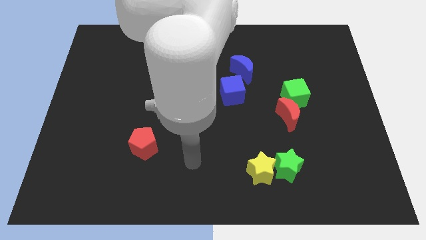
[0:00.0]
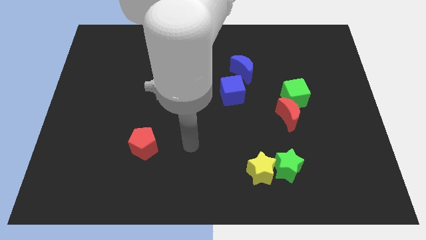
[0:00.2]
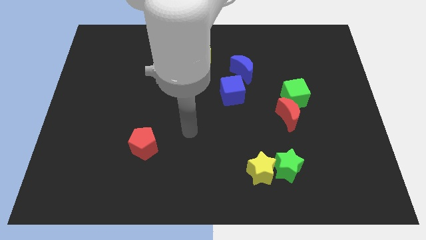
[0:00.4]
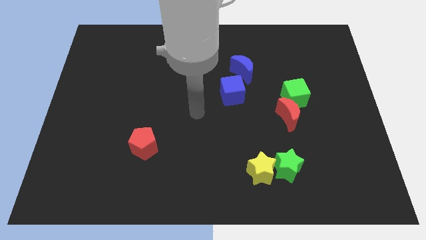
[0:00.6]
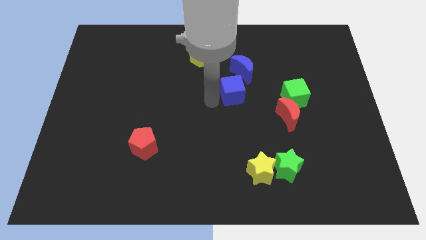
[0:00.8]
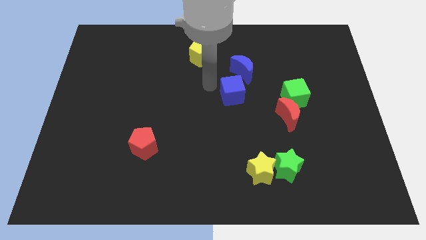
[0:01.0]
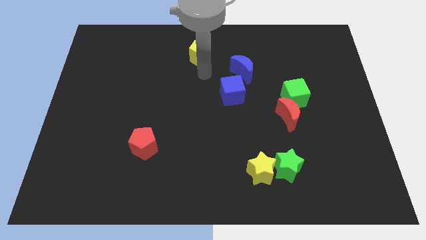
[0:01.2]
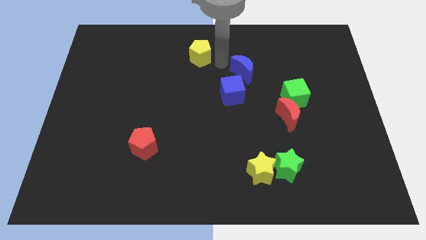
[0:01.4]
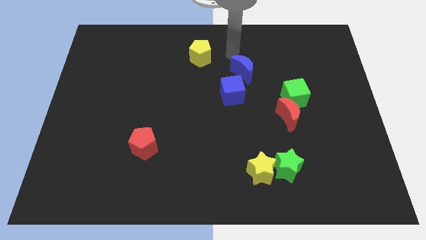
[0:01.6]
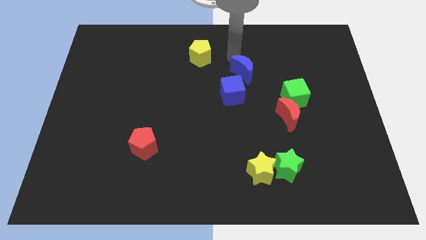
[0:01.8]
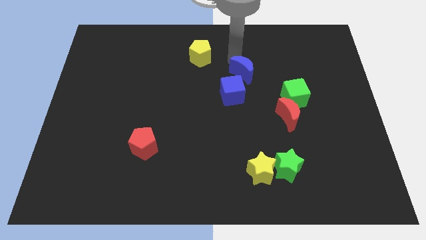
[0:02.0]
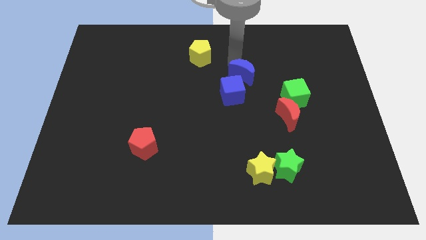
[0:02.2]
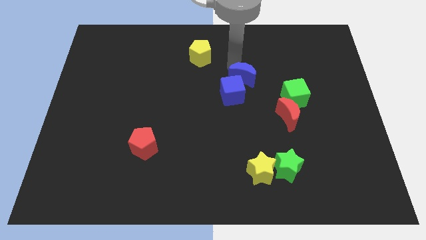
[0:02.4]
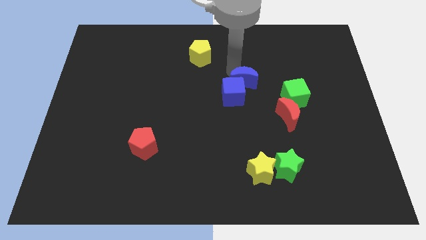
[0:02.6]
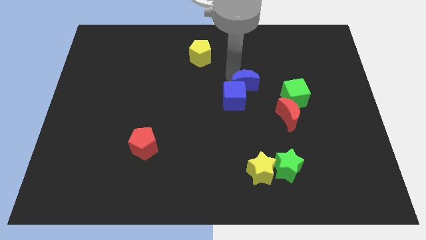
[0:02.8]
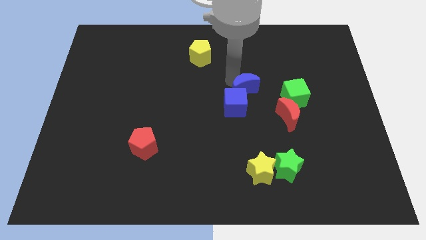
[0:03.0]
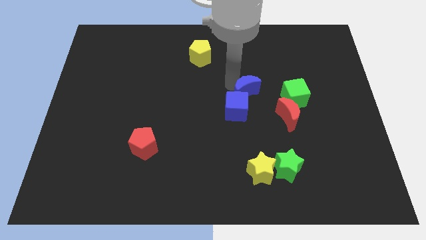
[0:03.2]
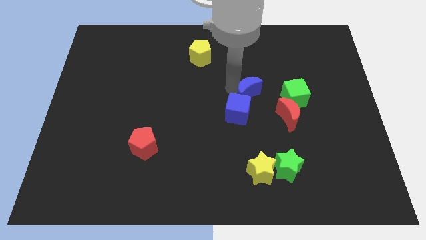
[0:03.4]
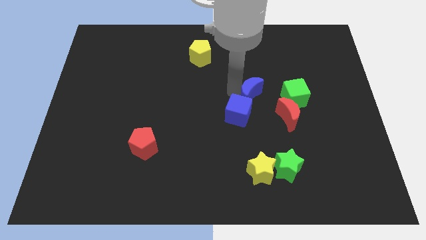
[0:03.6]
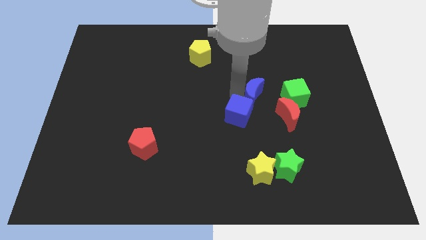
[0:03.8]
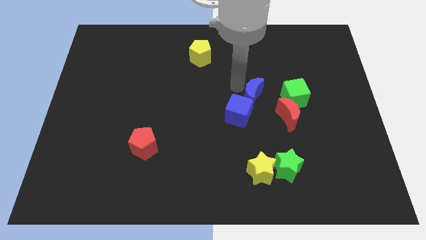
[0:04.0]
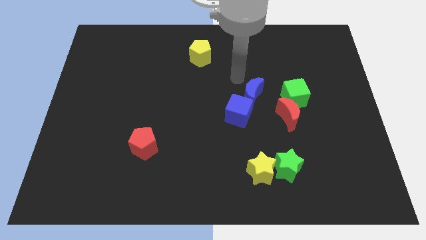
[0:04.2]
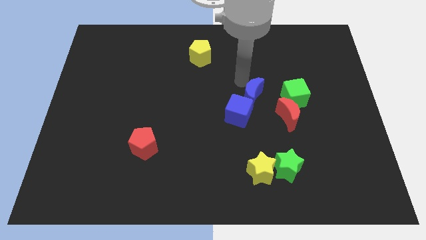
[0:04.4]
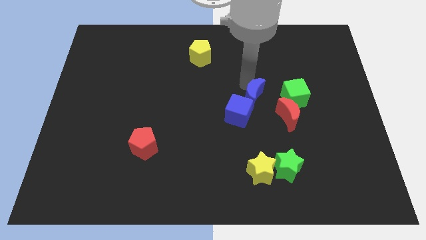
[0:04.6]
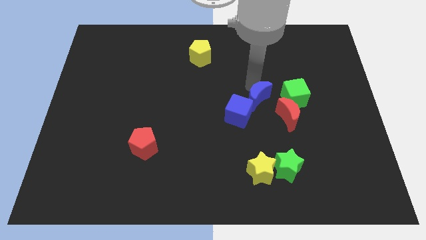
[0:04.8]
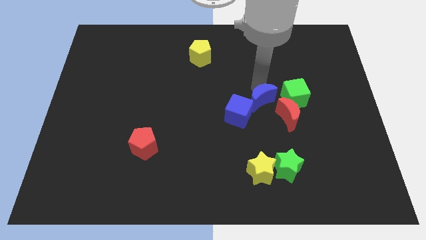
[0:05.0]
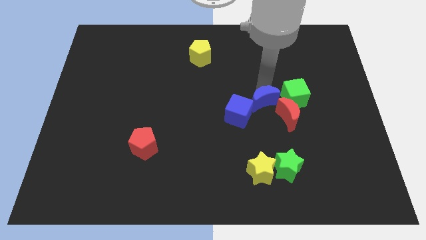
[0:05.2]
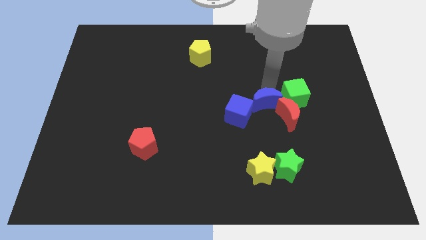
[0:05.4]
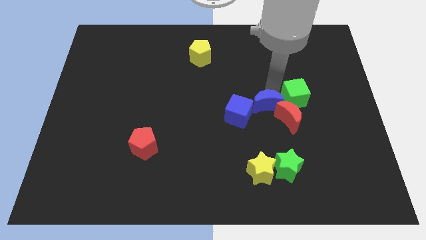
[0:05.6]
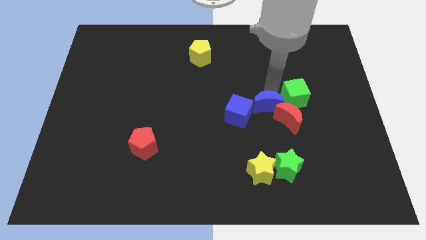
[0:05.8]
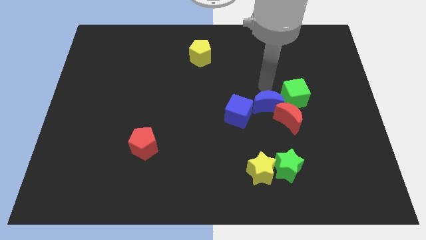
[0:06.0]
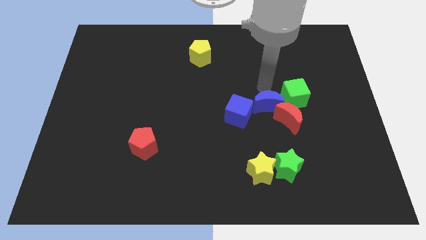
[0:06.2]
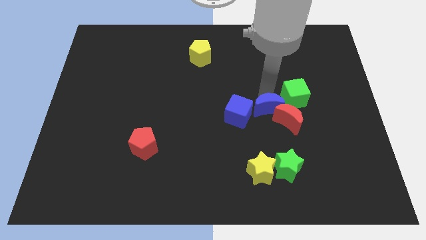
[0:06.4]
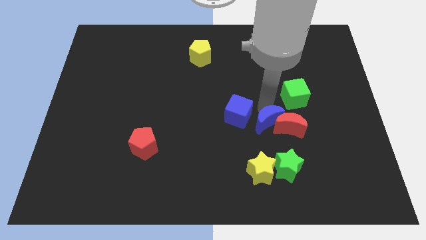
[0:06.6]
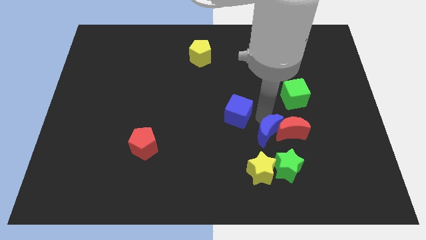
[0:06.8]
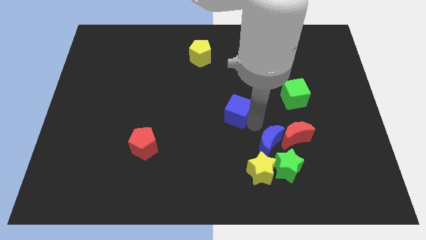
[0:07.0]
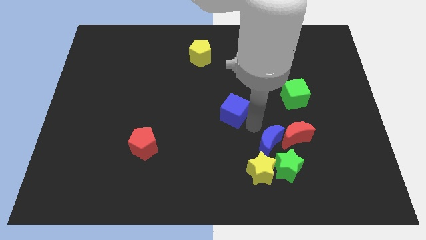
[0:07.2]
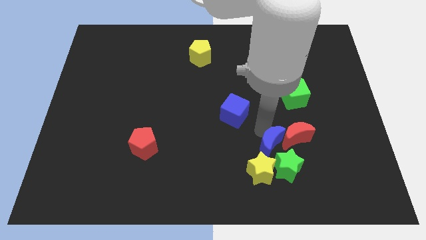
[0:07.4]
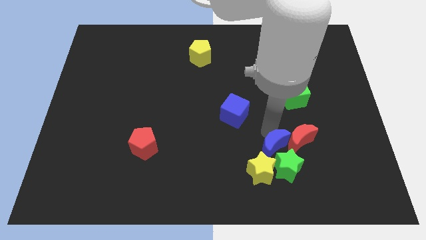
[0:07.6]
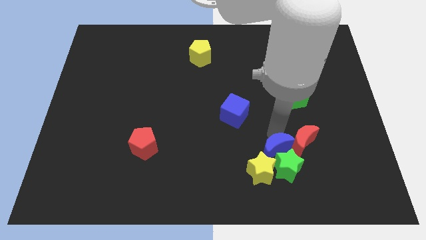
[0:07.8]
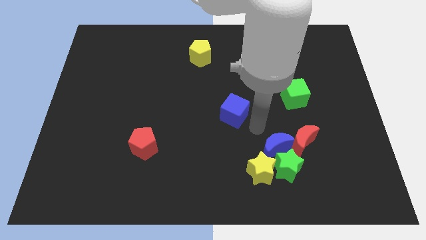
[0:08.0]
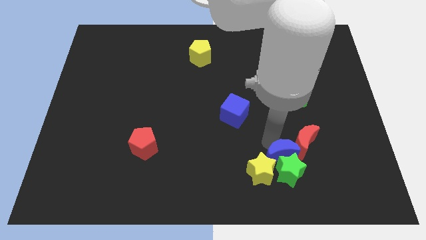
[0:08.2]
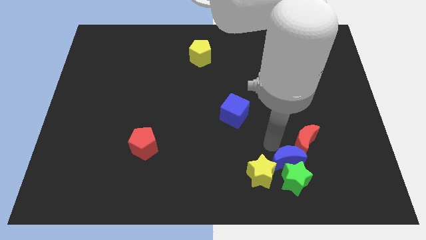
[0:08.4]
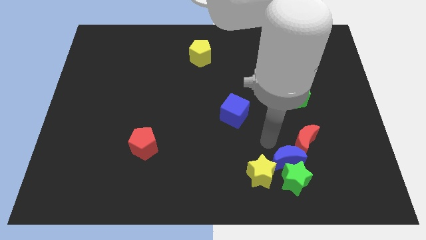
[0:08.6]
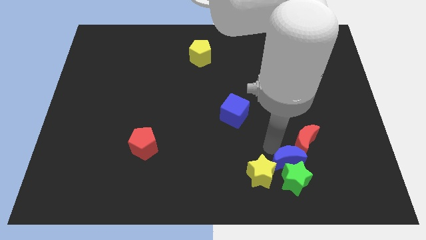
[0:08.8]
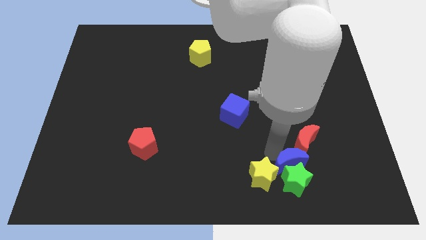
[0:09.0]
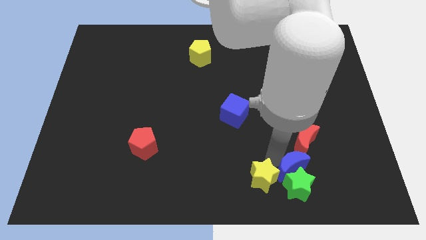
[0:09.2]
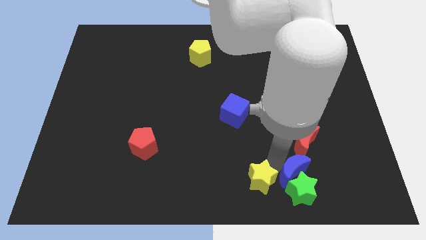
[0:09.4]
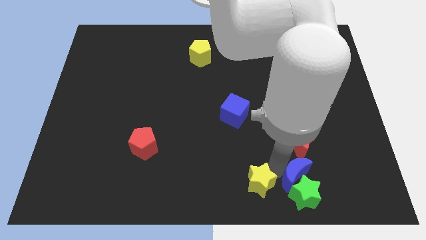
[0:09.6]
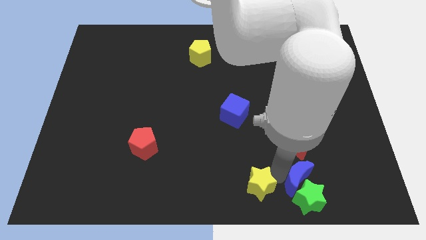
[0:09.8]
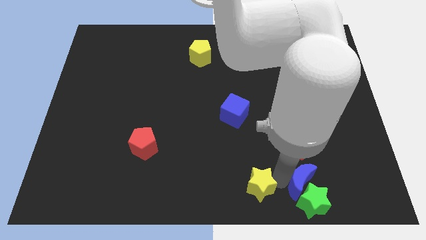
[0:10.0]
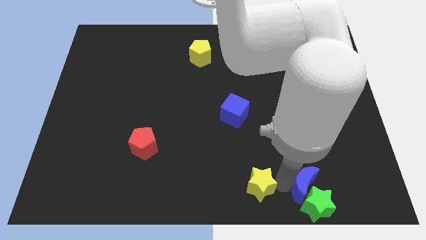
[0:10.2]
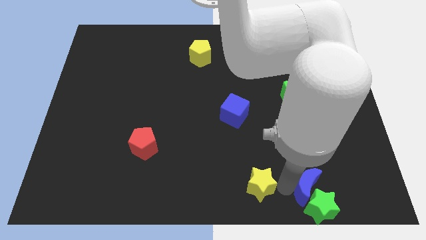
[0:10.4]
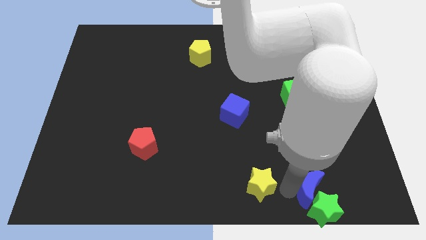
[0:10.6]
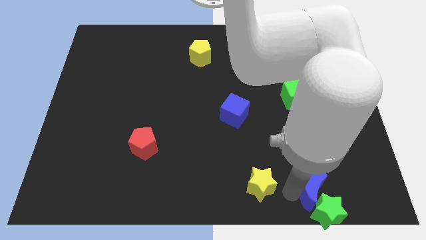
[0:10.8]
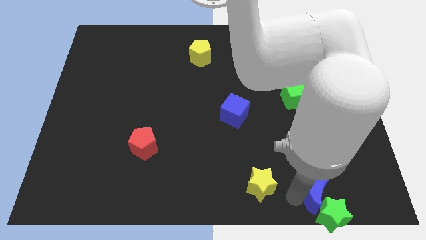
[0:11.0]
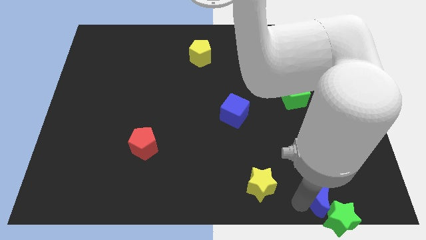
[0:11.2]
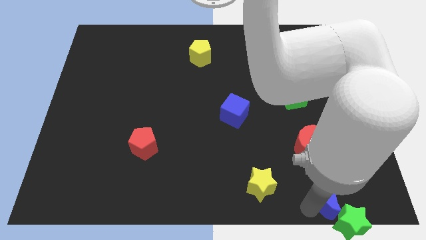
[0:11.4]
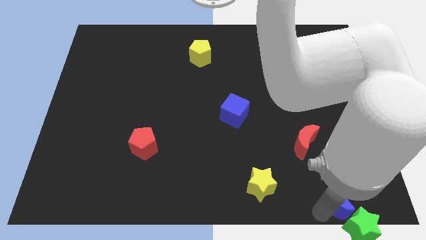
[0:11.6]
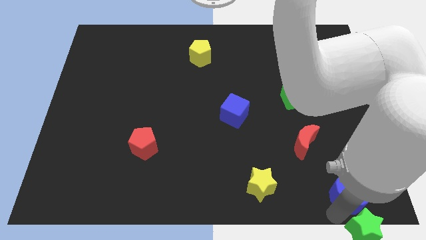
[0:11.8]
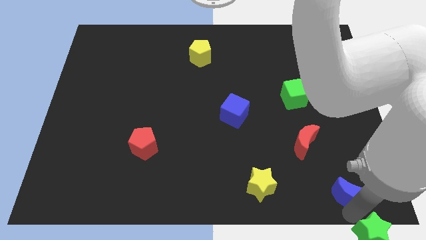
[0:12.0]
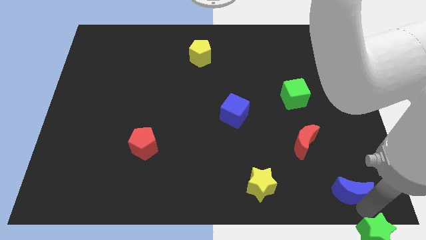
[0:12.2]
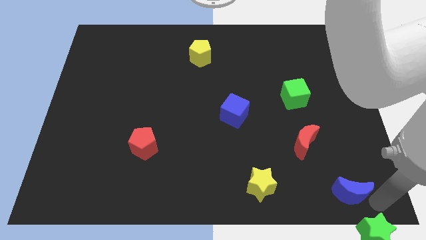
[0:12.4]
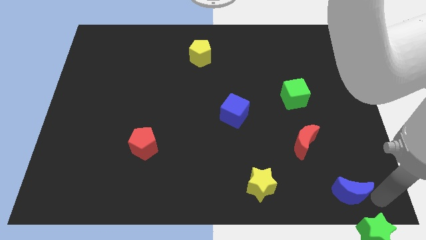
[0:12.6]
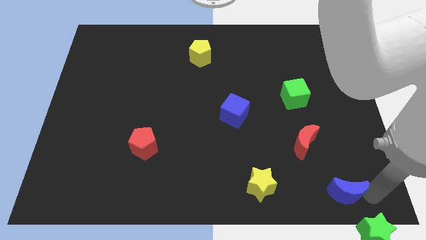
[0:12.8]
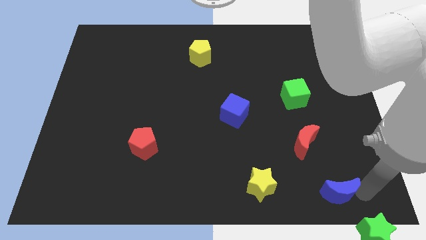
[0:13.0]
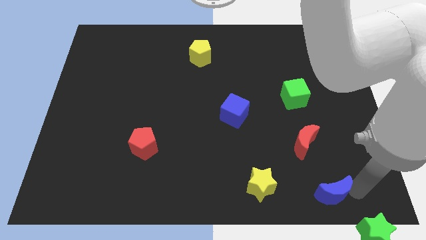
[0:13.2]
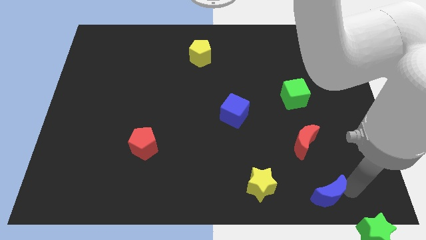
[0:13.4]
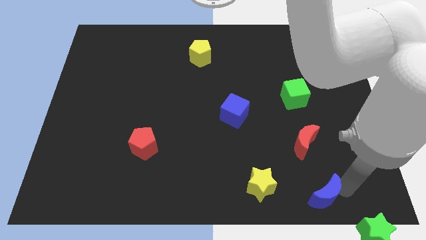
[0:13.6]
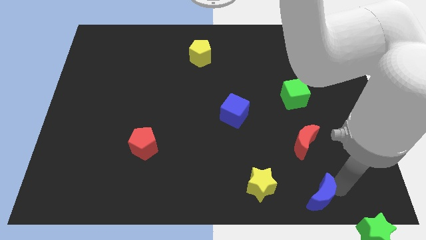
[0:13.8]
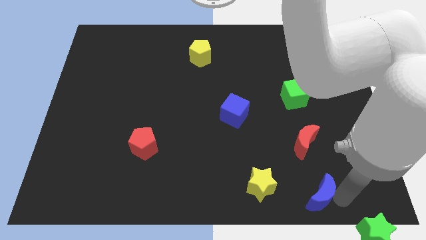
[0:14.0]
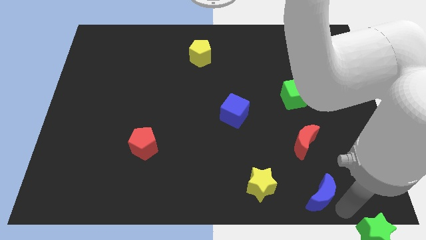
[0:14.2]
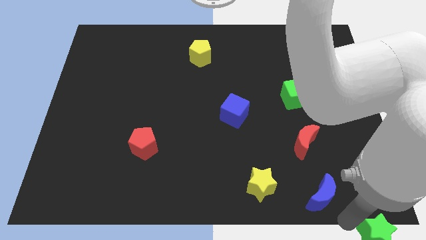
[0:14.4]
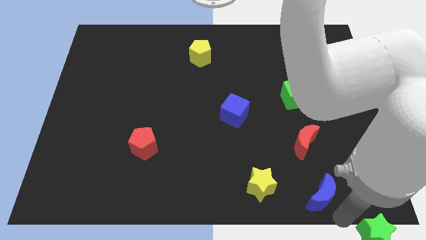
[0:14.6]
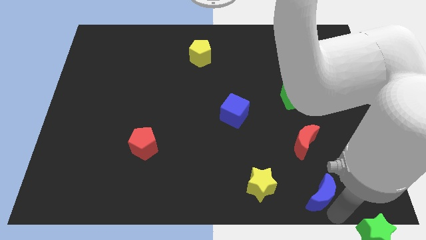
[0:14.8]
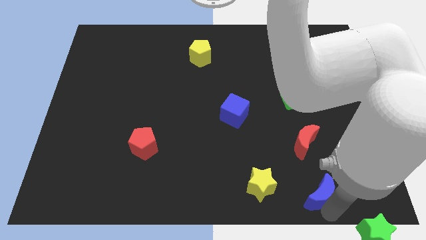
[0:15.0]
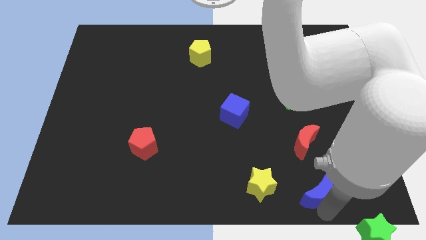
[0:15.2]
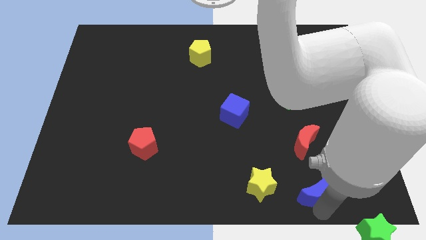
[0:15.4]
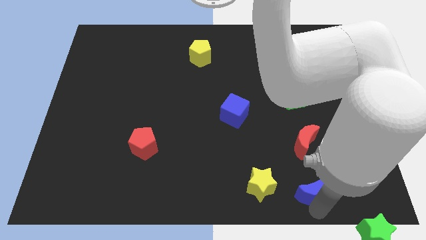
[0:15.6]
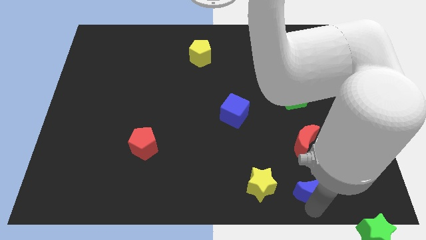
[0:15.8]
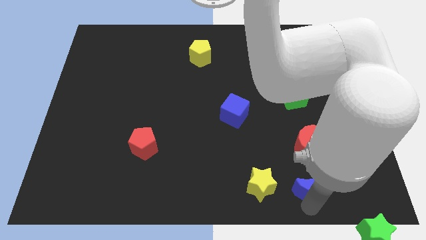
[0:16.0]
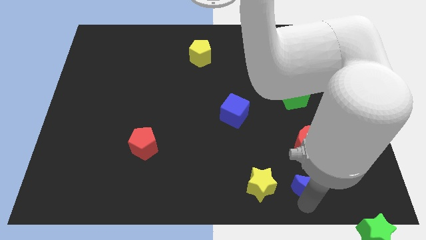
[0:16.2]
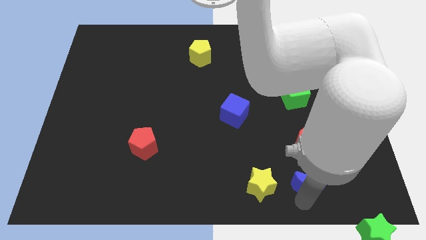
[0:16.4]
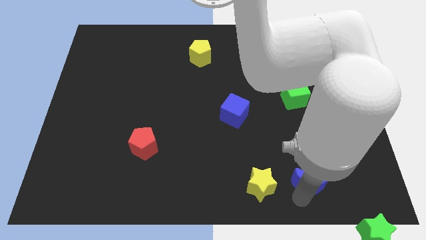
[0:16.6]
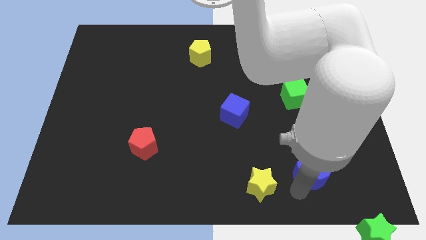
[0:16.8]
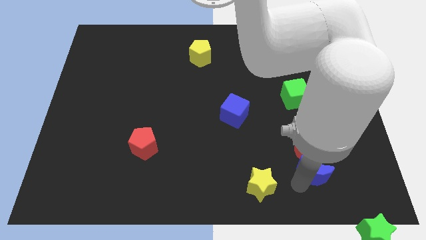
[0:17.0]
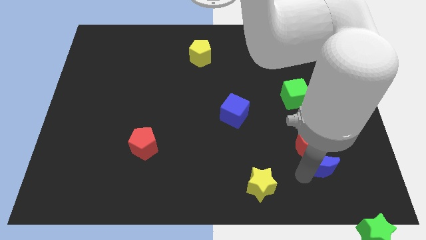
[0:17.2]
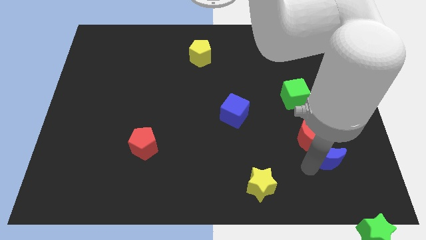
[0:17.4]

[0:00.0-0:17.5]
move the blue moon to the bottom side of the red moon
